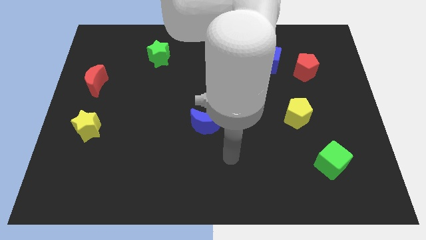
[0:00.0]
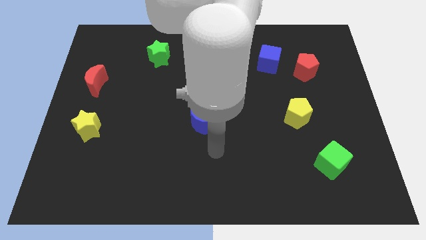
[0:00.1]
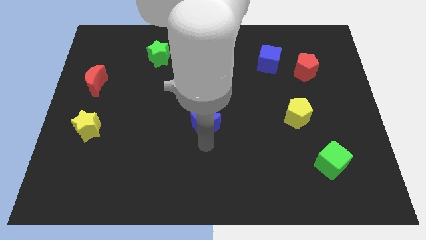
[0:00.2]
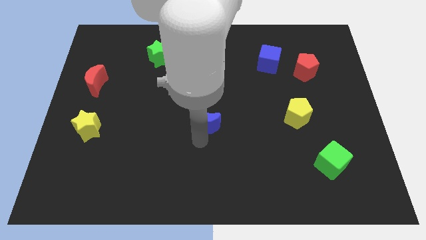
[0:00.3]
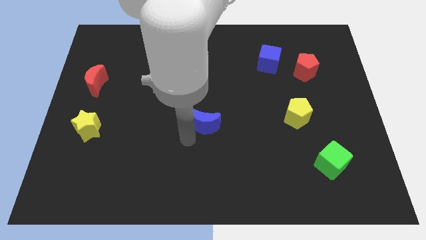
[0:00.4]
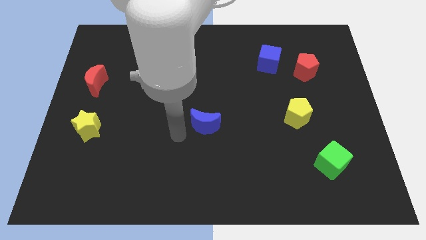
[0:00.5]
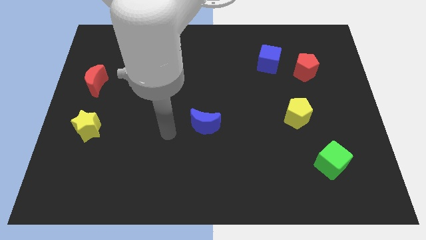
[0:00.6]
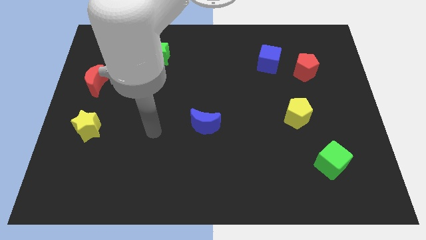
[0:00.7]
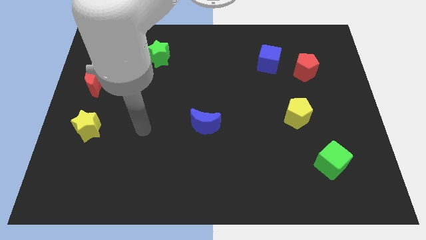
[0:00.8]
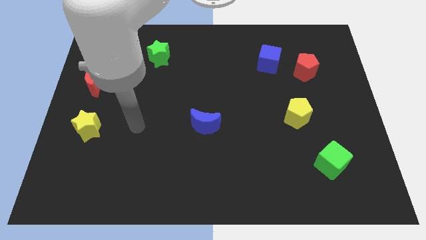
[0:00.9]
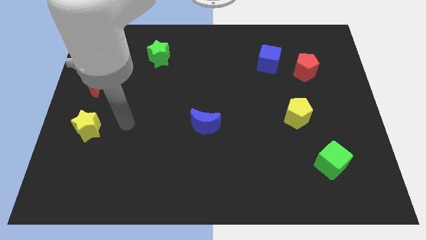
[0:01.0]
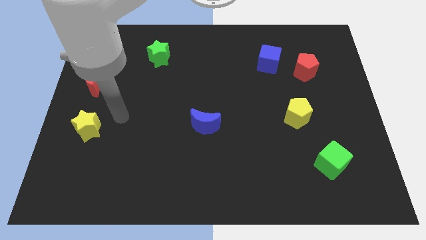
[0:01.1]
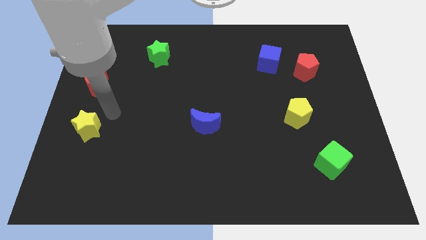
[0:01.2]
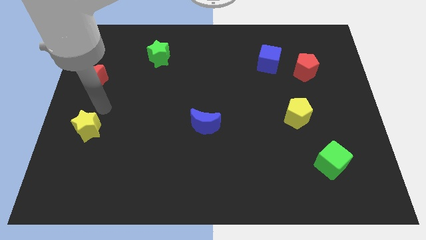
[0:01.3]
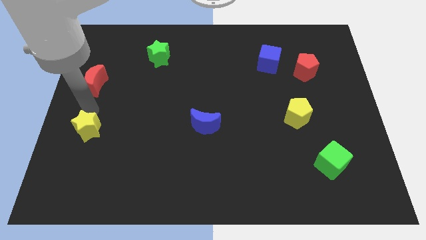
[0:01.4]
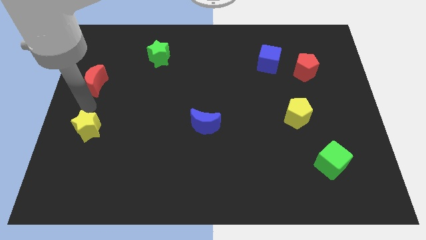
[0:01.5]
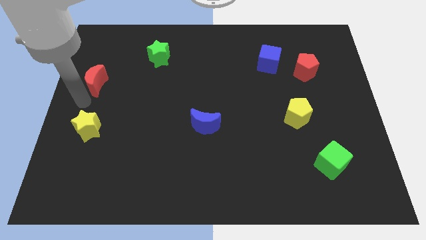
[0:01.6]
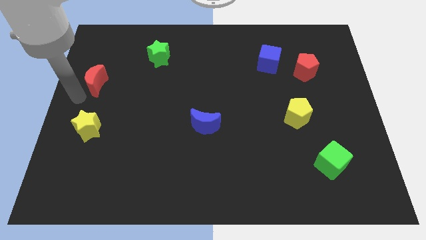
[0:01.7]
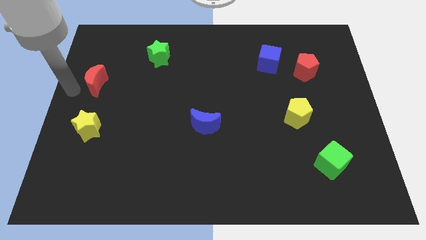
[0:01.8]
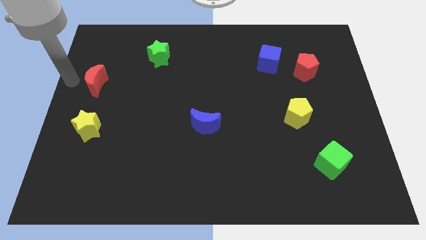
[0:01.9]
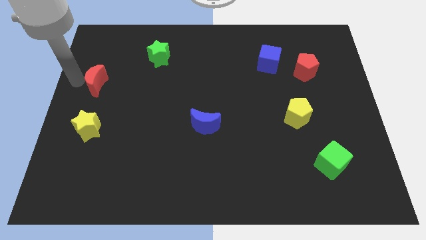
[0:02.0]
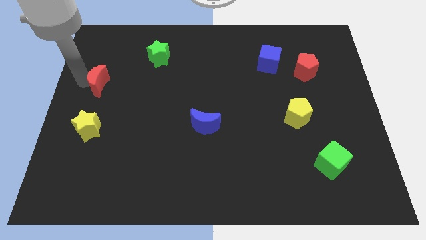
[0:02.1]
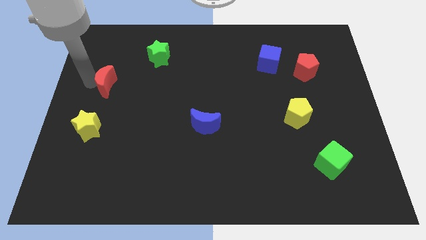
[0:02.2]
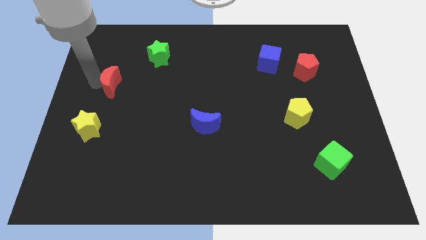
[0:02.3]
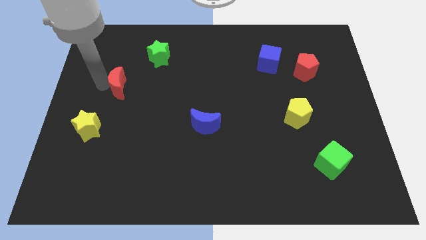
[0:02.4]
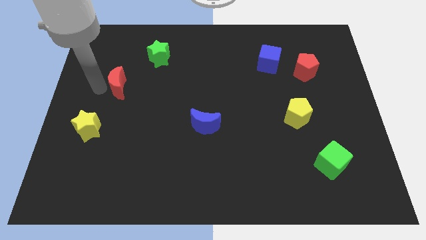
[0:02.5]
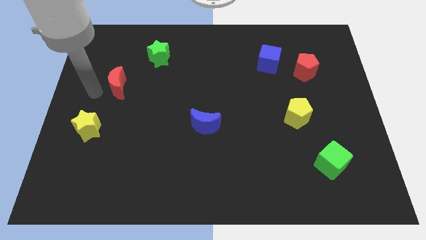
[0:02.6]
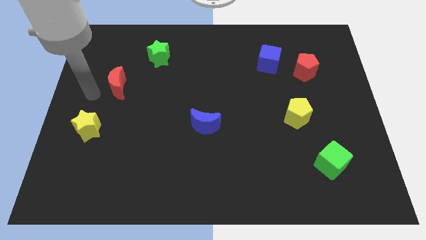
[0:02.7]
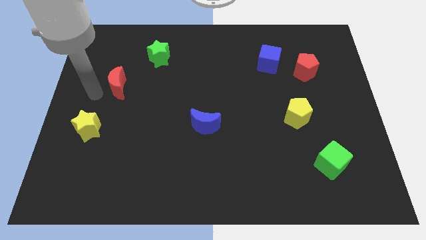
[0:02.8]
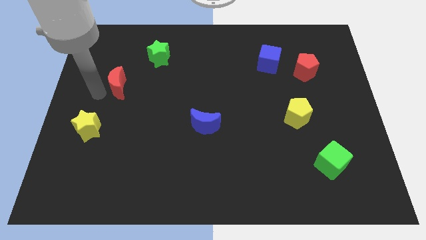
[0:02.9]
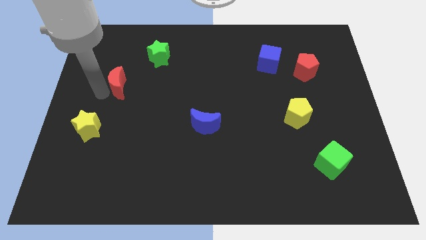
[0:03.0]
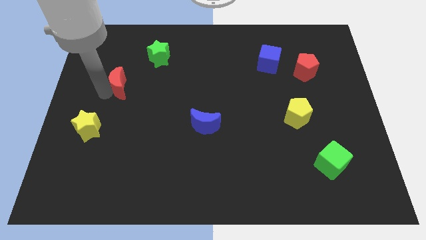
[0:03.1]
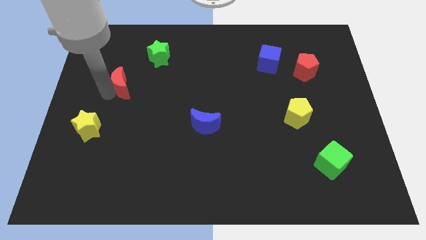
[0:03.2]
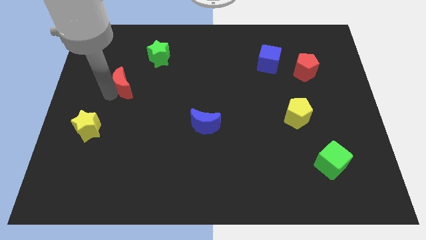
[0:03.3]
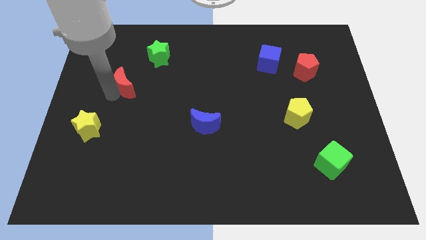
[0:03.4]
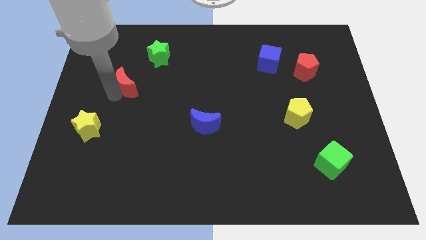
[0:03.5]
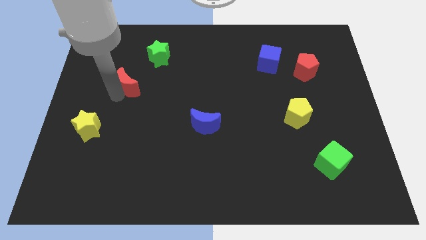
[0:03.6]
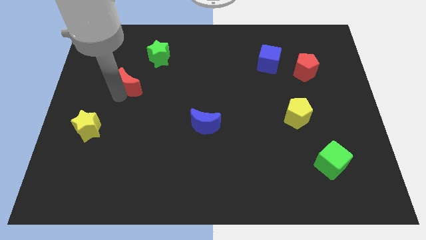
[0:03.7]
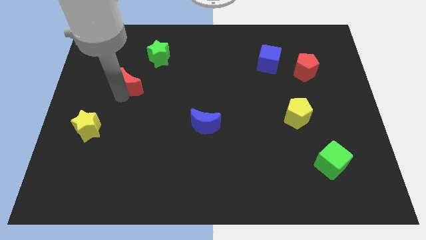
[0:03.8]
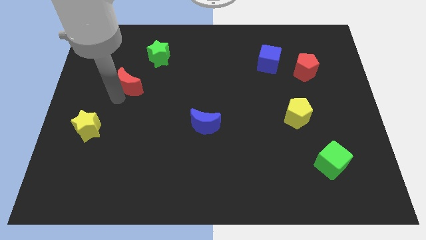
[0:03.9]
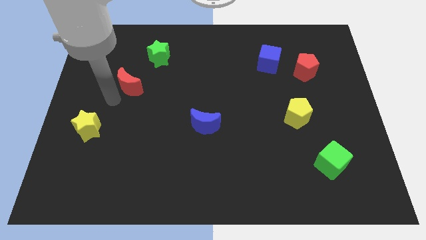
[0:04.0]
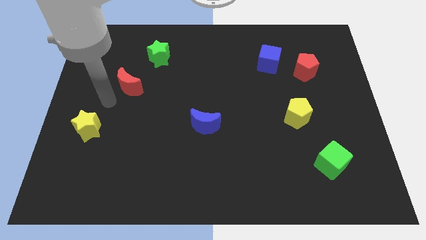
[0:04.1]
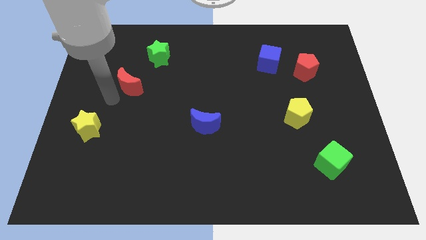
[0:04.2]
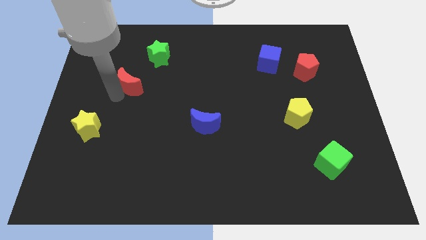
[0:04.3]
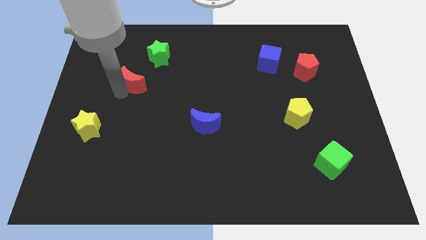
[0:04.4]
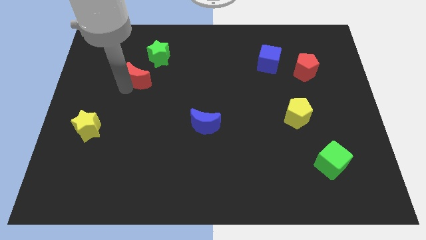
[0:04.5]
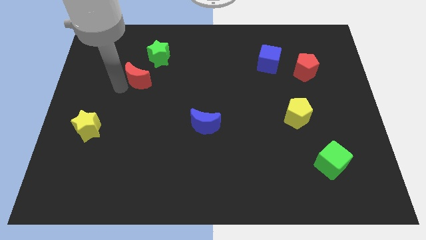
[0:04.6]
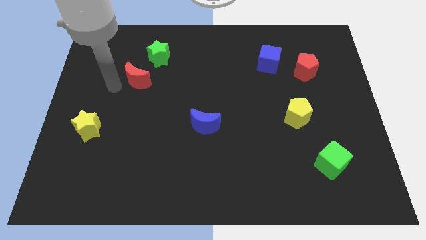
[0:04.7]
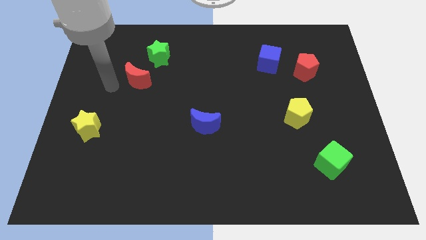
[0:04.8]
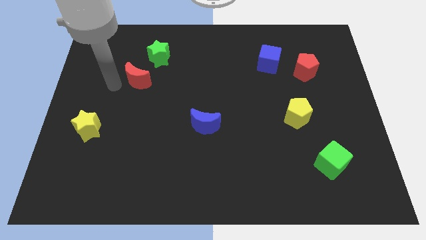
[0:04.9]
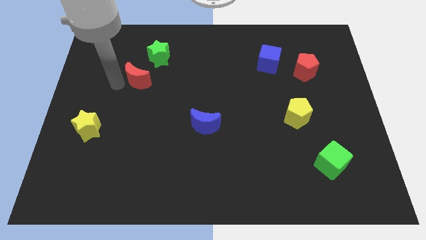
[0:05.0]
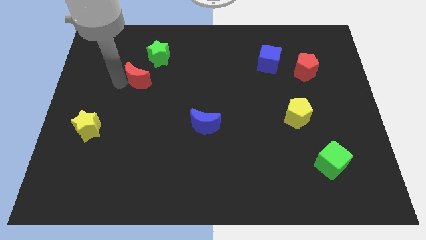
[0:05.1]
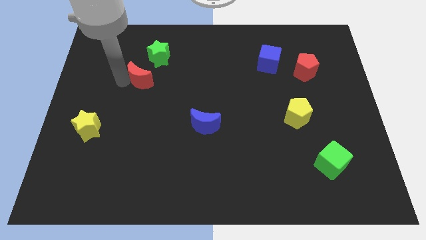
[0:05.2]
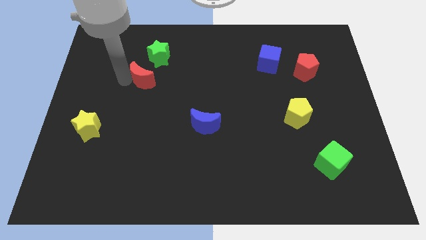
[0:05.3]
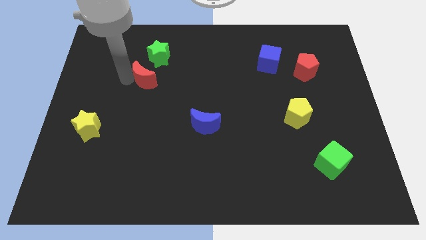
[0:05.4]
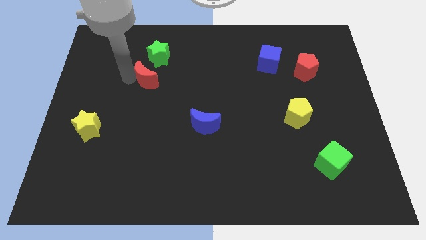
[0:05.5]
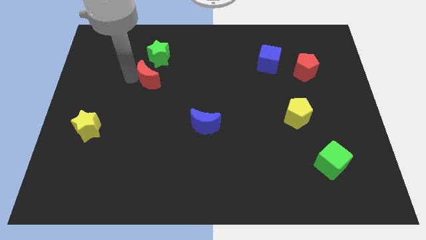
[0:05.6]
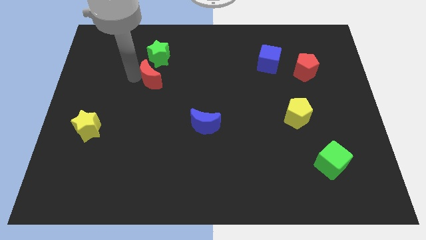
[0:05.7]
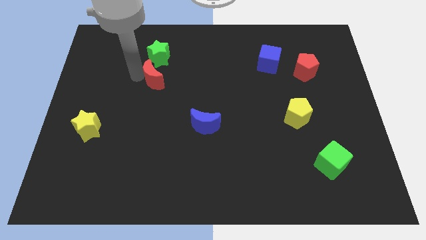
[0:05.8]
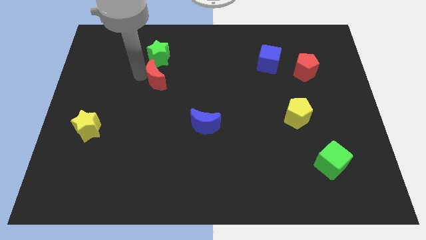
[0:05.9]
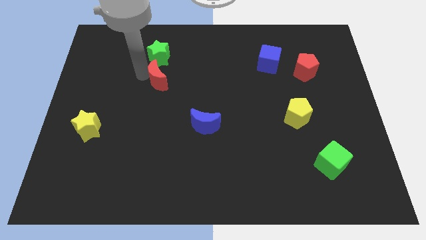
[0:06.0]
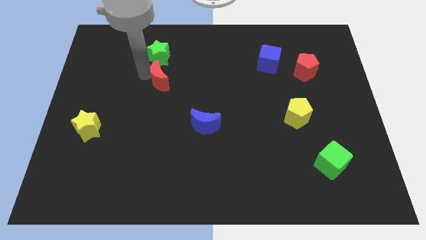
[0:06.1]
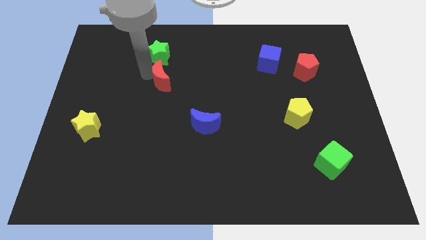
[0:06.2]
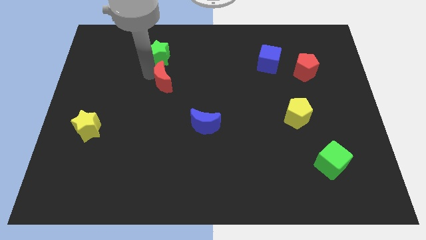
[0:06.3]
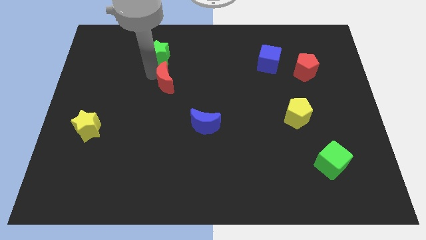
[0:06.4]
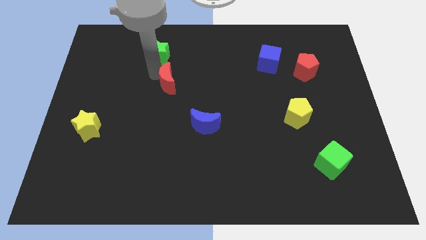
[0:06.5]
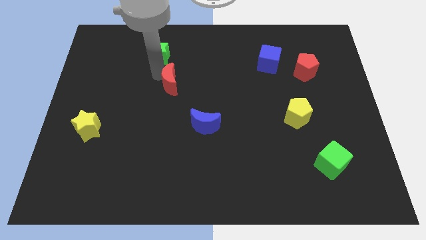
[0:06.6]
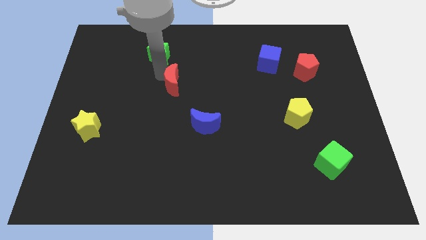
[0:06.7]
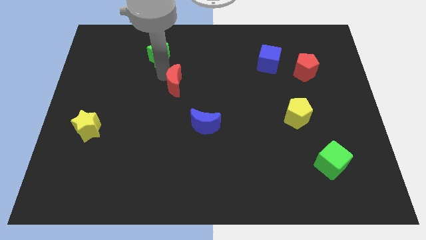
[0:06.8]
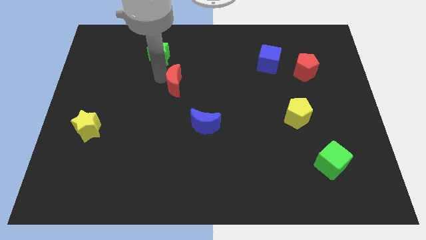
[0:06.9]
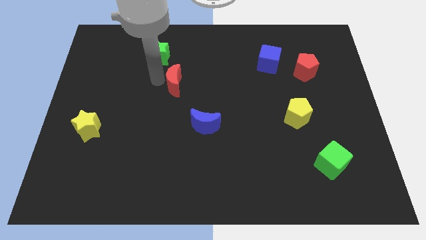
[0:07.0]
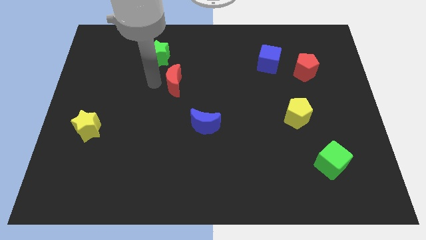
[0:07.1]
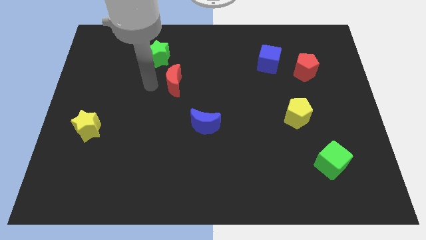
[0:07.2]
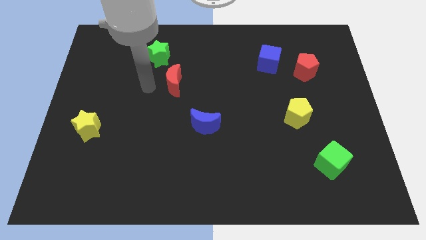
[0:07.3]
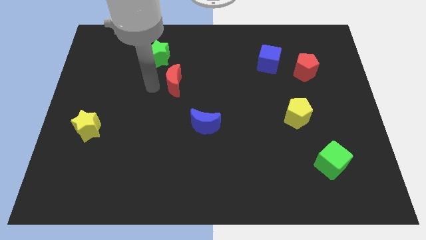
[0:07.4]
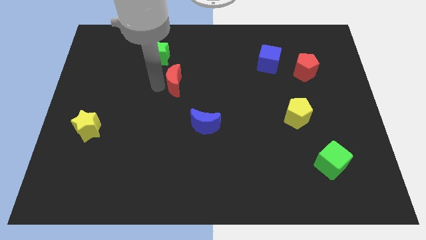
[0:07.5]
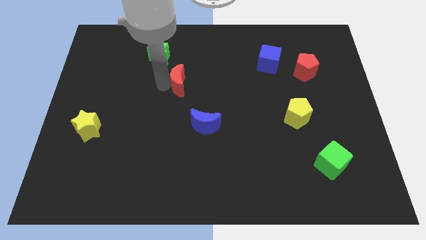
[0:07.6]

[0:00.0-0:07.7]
push the red moon to the right

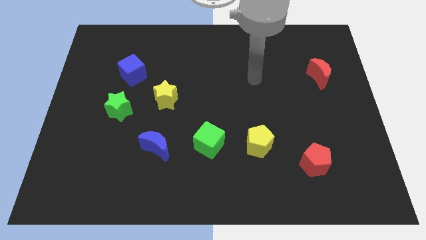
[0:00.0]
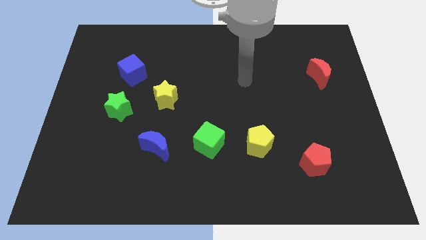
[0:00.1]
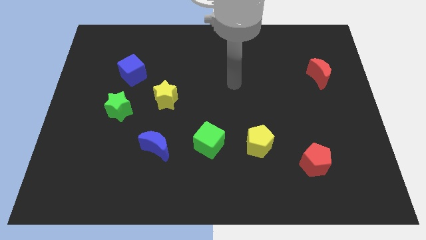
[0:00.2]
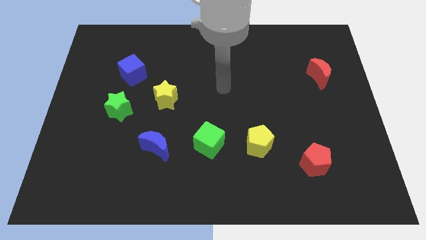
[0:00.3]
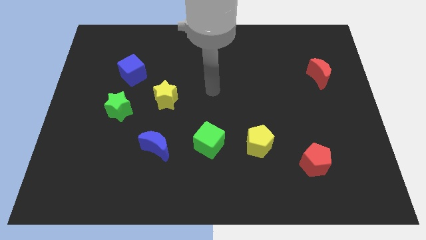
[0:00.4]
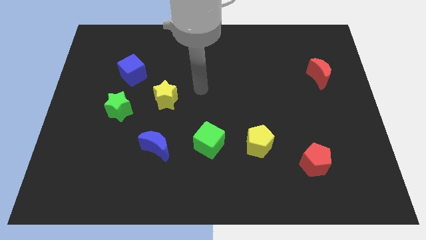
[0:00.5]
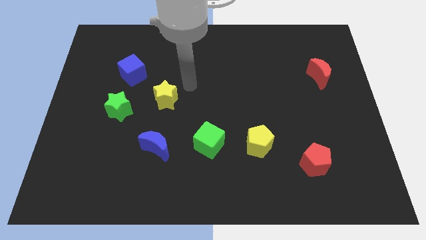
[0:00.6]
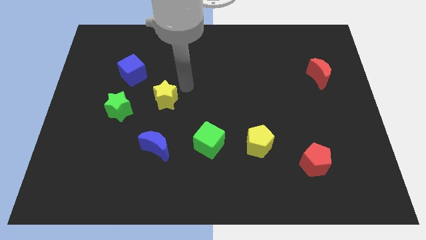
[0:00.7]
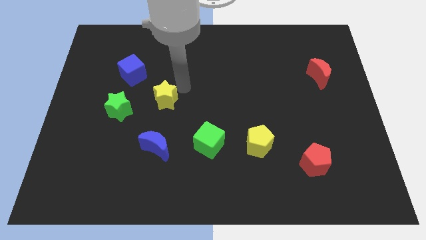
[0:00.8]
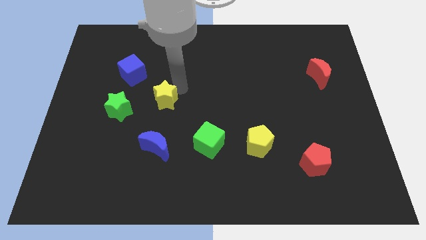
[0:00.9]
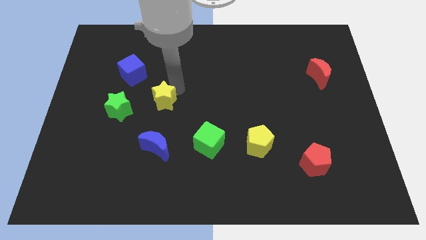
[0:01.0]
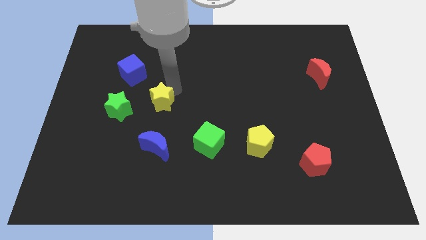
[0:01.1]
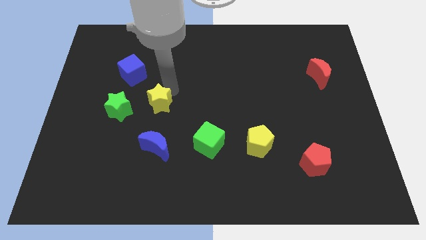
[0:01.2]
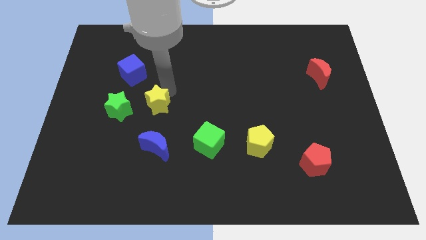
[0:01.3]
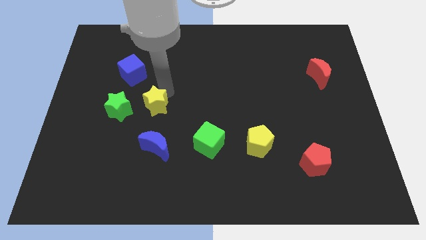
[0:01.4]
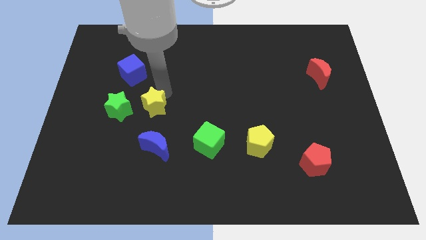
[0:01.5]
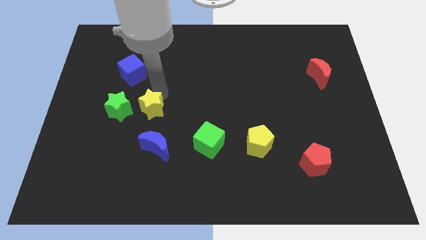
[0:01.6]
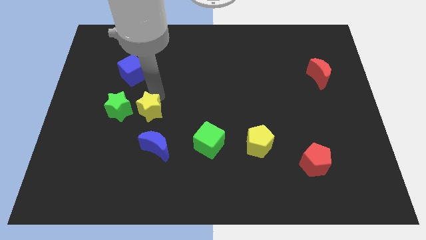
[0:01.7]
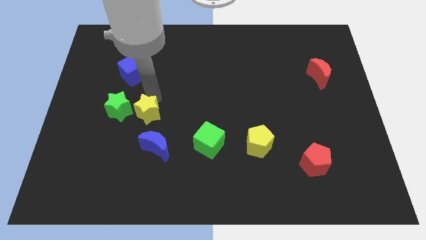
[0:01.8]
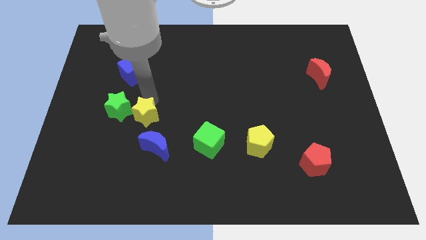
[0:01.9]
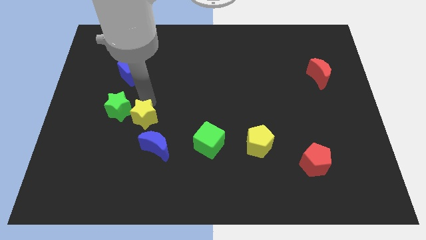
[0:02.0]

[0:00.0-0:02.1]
slightly push the yellow star downwards and left
